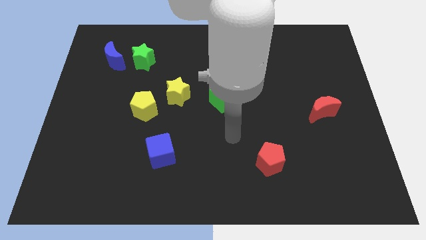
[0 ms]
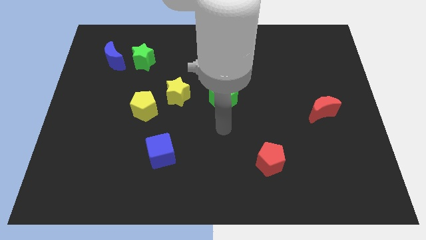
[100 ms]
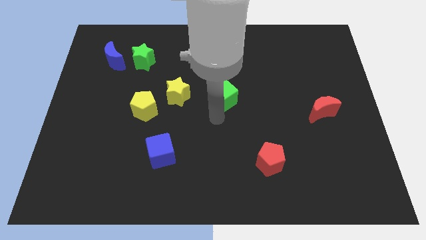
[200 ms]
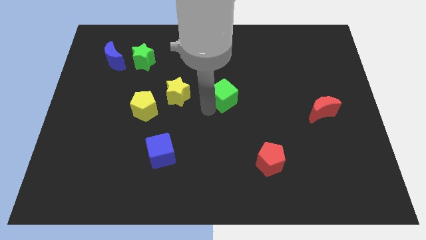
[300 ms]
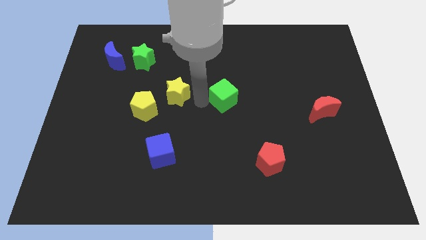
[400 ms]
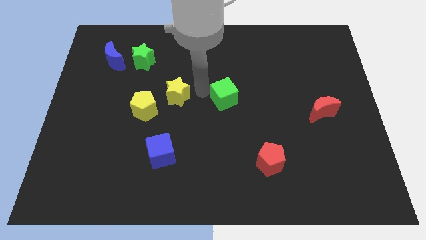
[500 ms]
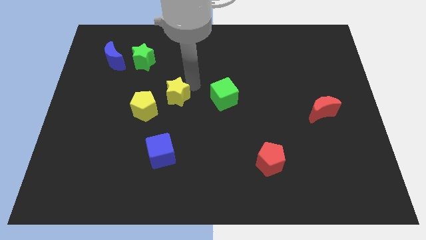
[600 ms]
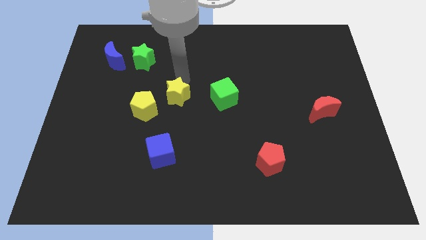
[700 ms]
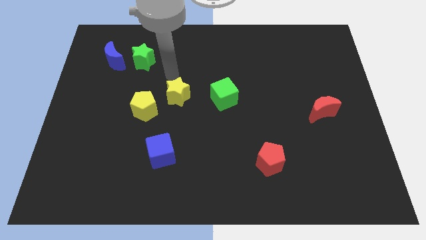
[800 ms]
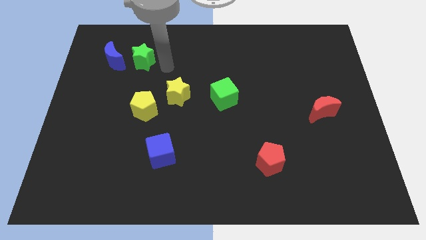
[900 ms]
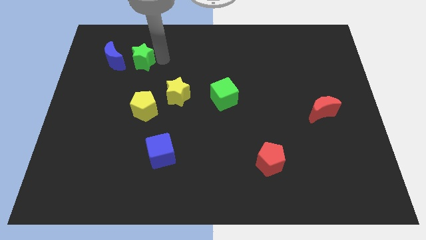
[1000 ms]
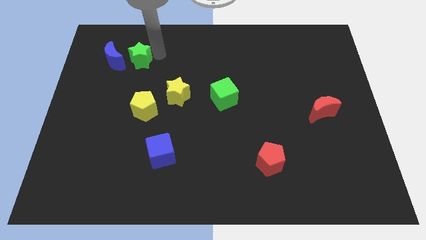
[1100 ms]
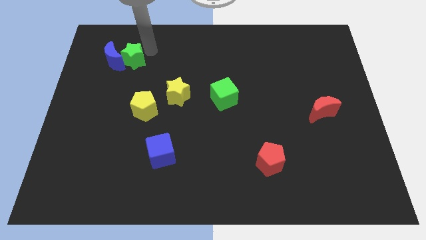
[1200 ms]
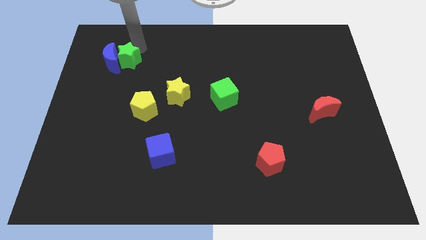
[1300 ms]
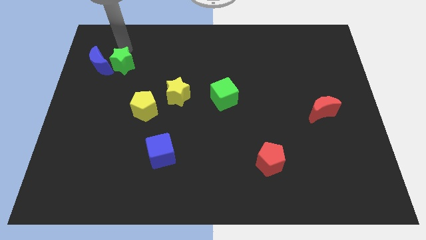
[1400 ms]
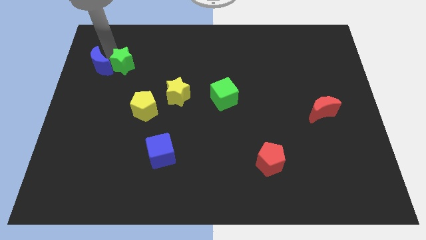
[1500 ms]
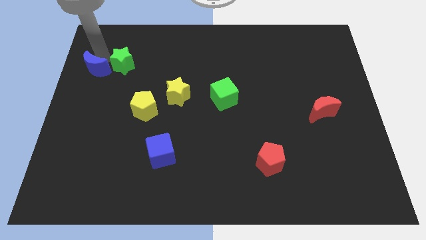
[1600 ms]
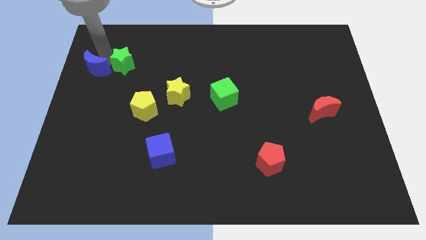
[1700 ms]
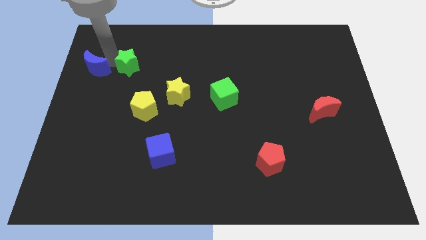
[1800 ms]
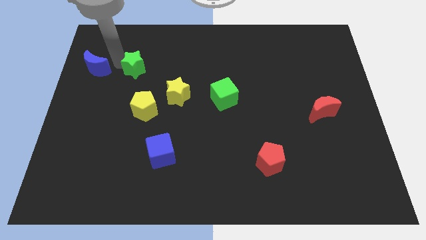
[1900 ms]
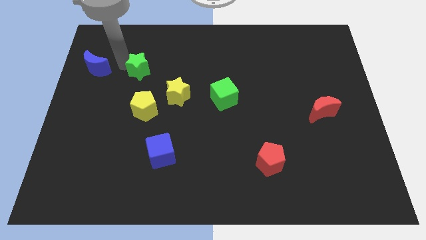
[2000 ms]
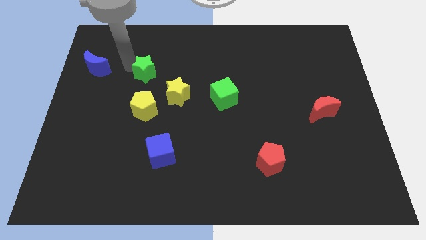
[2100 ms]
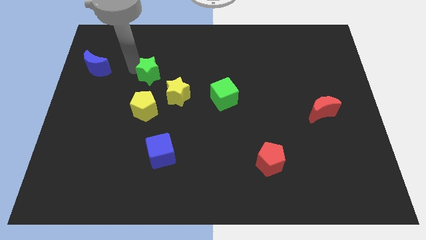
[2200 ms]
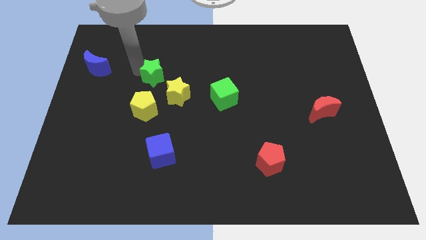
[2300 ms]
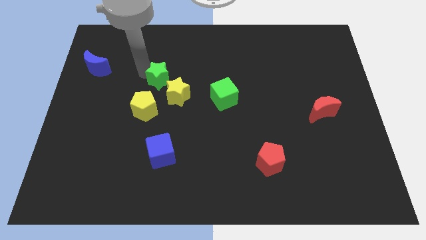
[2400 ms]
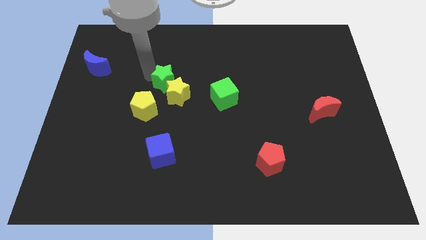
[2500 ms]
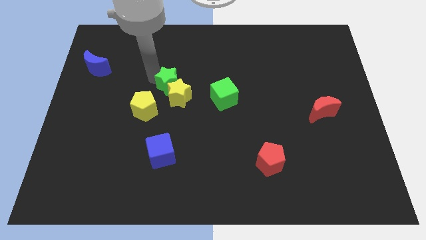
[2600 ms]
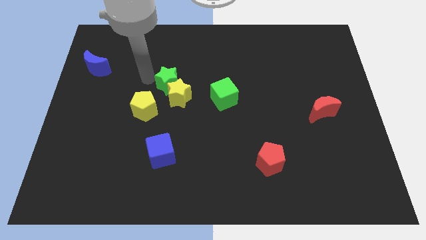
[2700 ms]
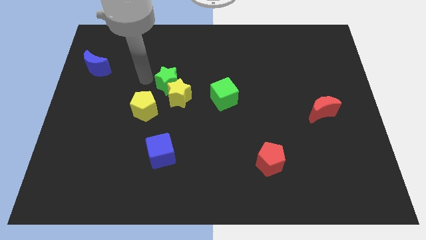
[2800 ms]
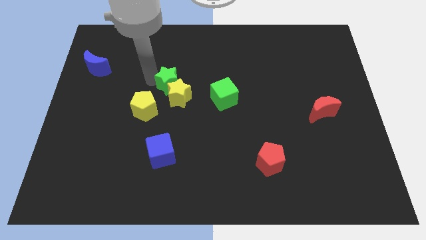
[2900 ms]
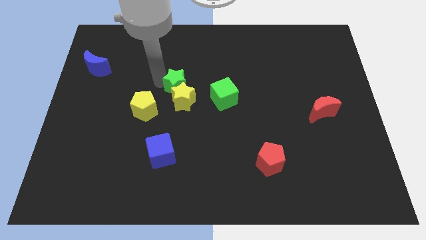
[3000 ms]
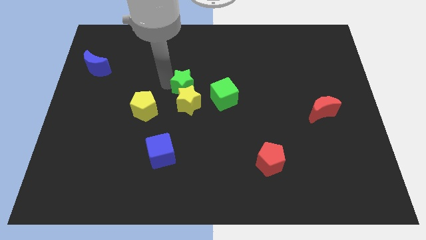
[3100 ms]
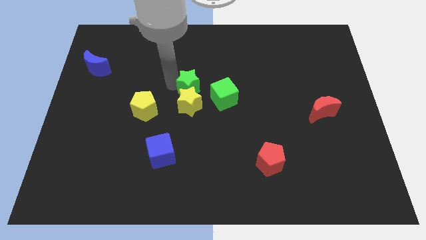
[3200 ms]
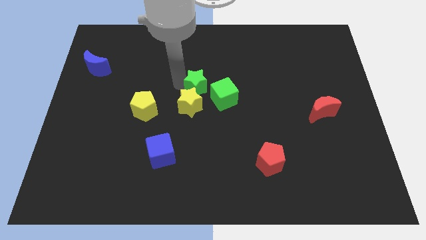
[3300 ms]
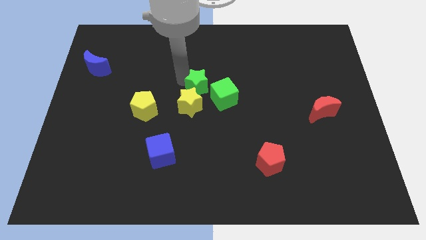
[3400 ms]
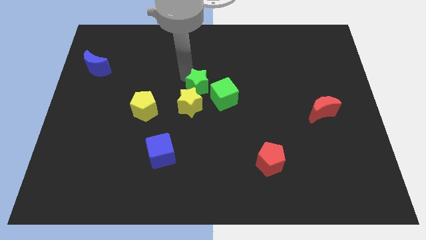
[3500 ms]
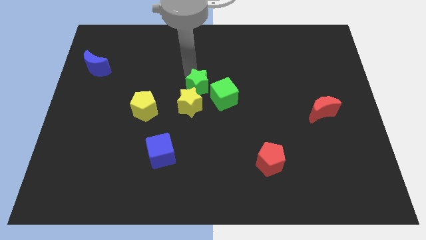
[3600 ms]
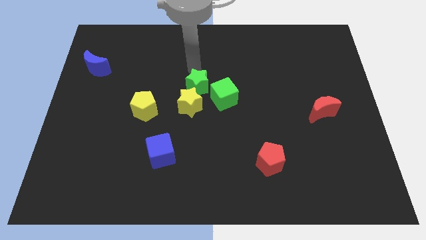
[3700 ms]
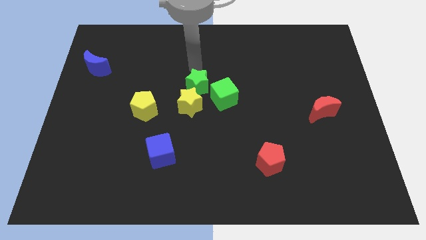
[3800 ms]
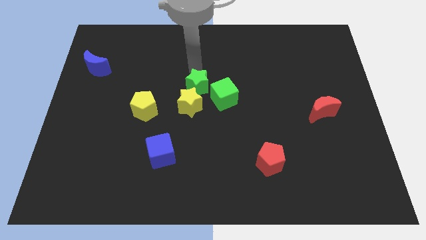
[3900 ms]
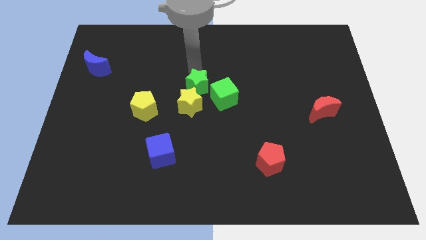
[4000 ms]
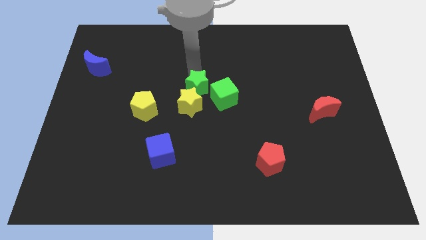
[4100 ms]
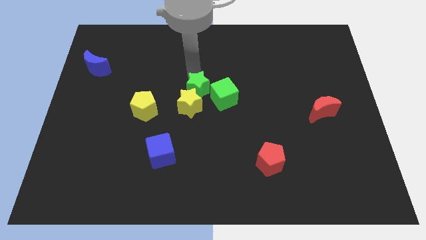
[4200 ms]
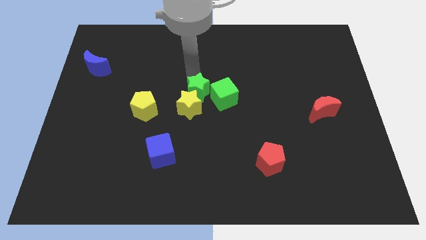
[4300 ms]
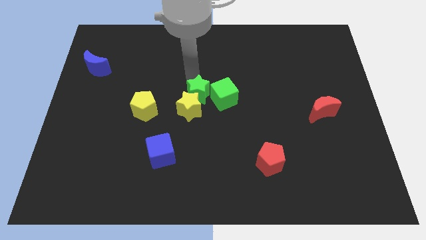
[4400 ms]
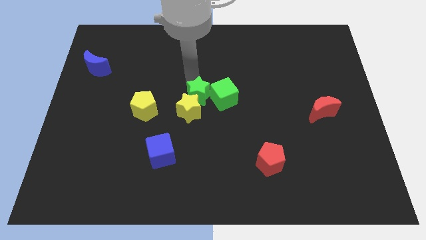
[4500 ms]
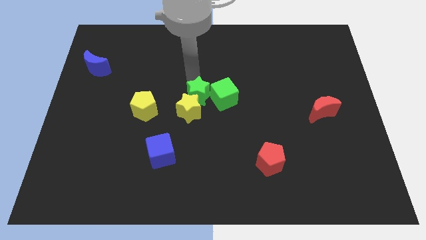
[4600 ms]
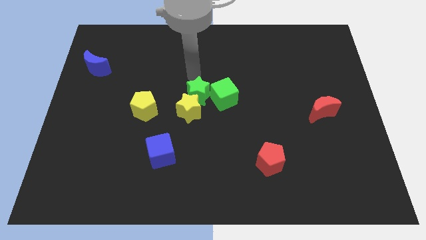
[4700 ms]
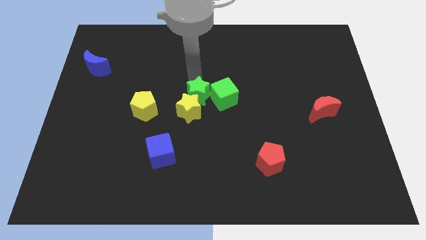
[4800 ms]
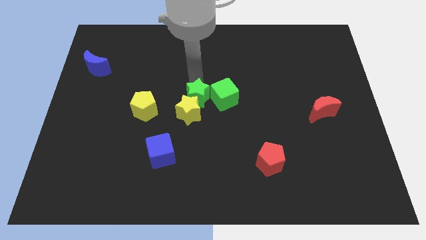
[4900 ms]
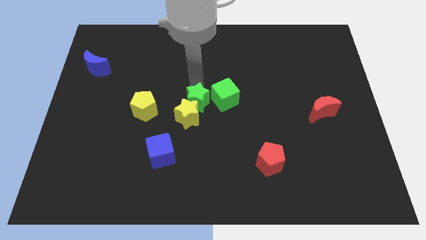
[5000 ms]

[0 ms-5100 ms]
move the green star down and right diagonally

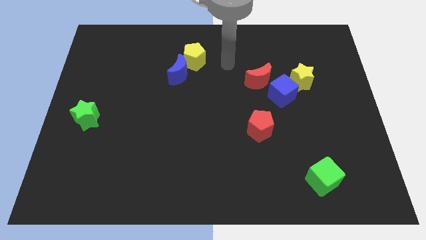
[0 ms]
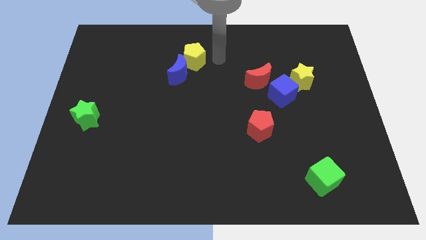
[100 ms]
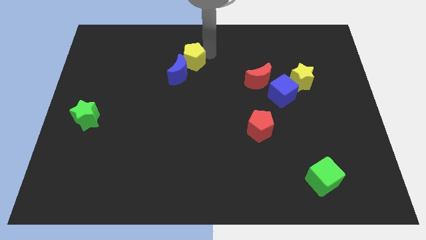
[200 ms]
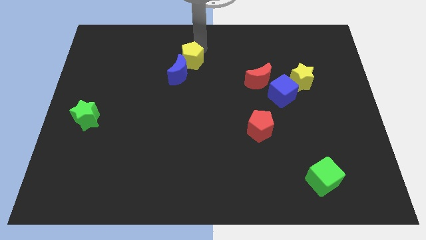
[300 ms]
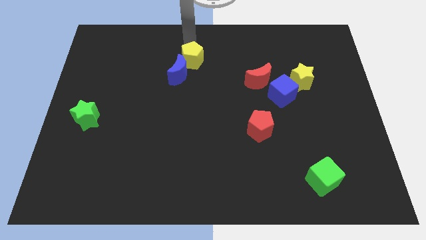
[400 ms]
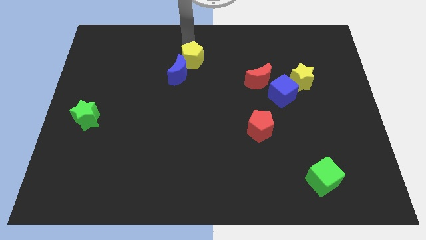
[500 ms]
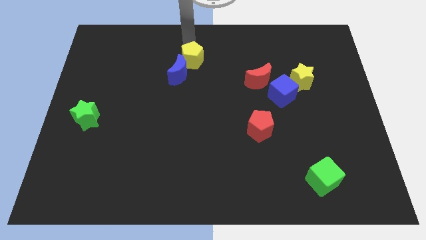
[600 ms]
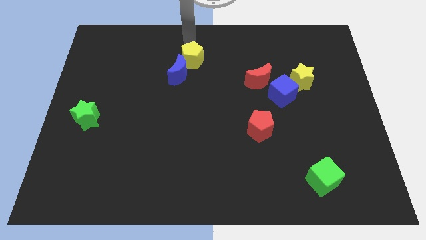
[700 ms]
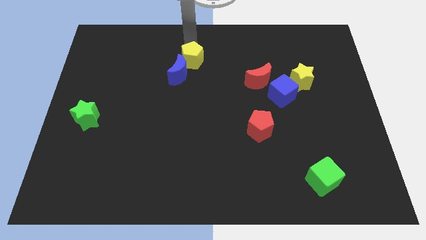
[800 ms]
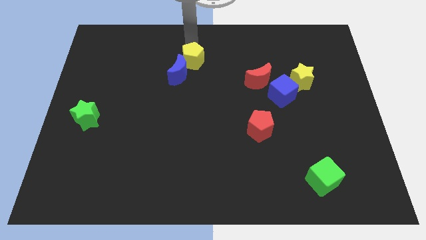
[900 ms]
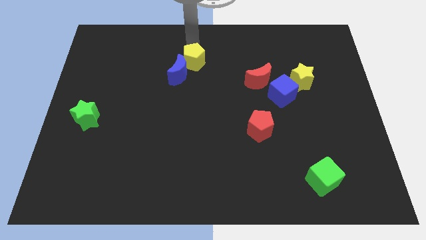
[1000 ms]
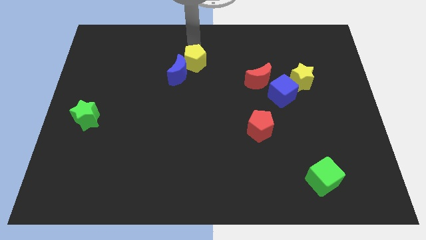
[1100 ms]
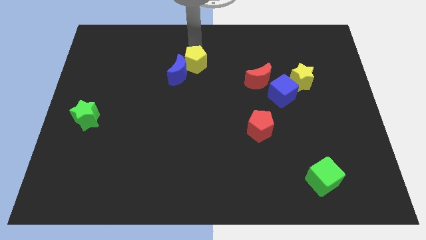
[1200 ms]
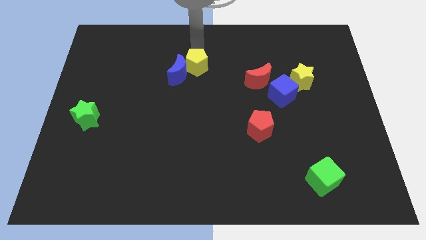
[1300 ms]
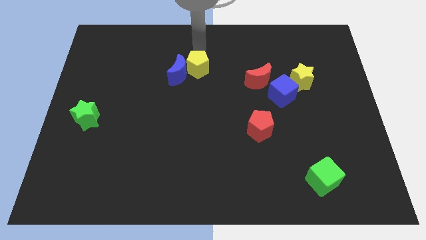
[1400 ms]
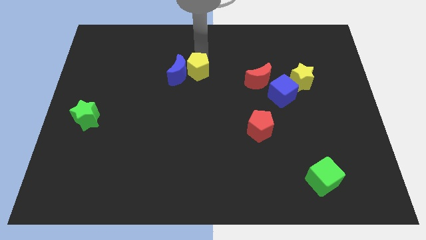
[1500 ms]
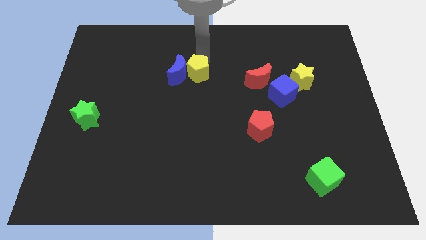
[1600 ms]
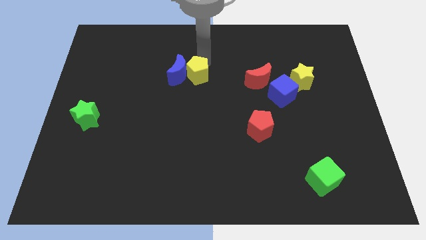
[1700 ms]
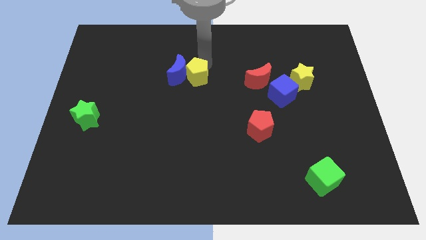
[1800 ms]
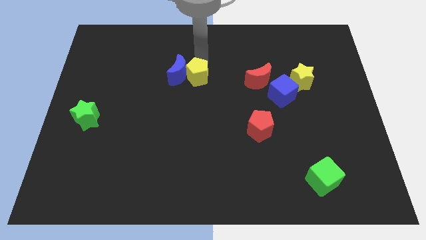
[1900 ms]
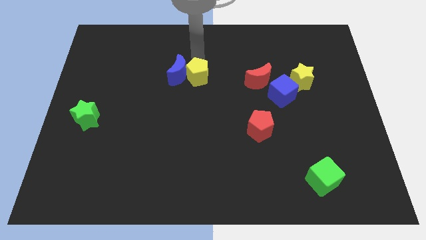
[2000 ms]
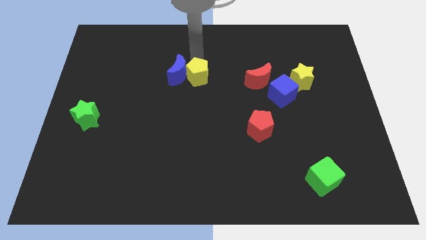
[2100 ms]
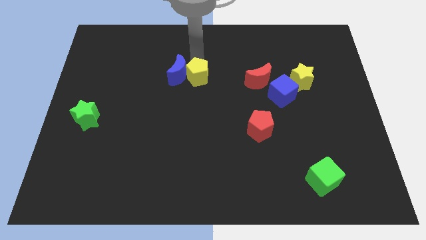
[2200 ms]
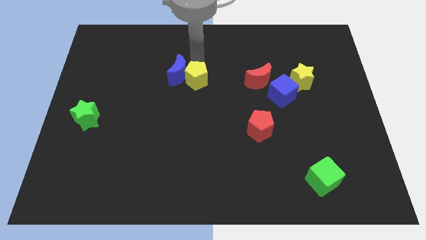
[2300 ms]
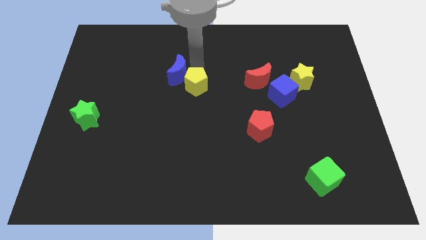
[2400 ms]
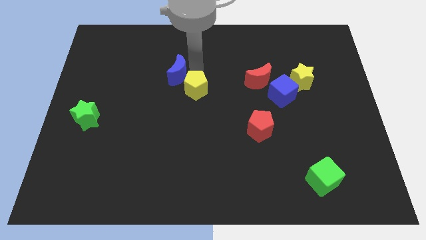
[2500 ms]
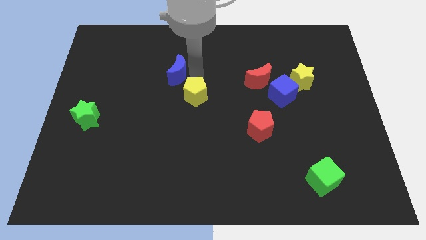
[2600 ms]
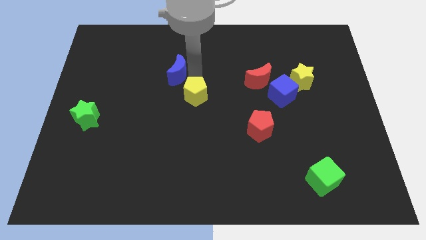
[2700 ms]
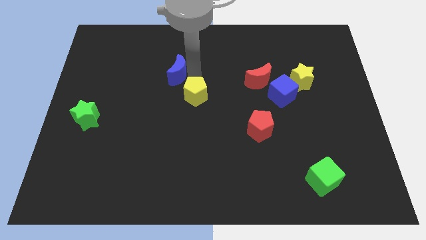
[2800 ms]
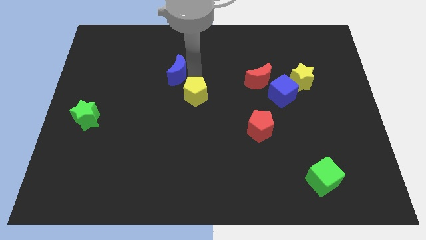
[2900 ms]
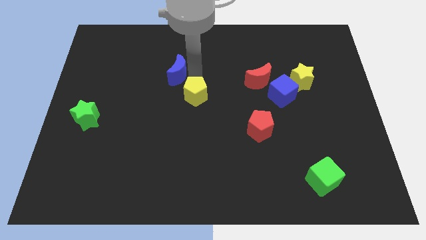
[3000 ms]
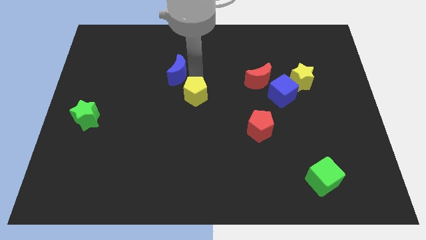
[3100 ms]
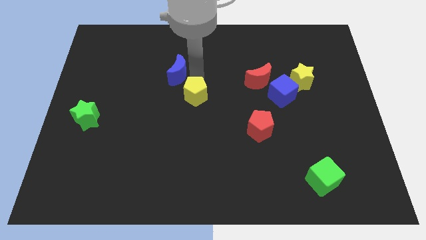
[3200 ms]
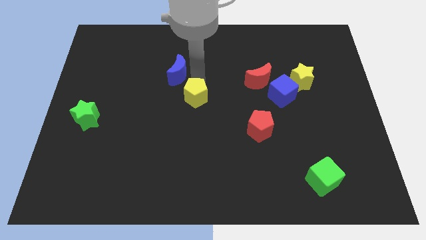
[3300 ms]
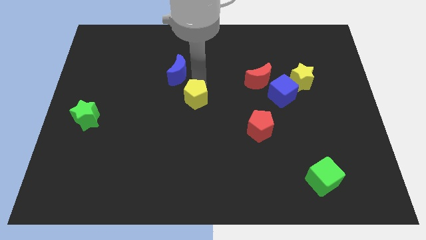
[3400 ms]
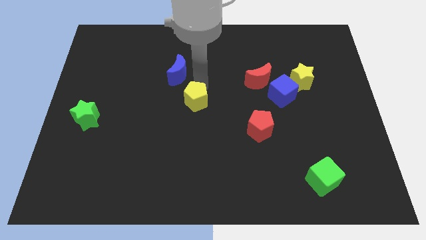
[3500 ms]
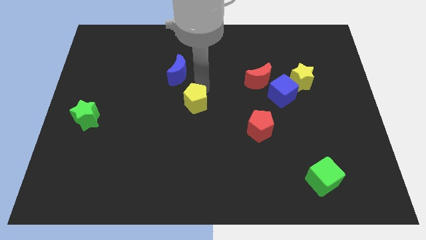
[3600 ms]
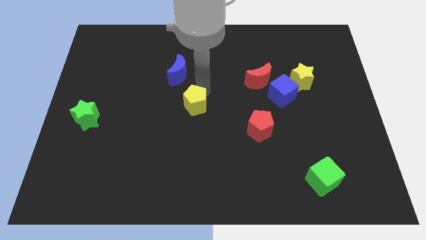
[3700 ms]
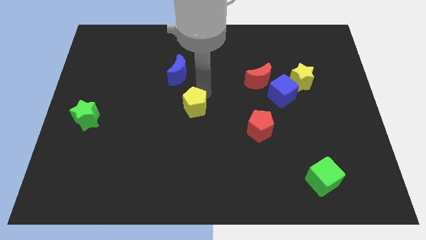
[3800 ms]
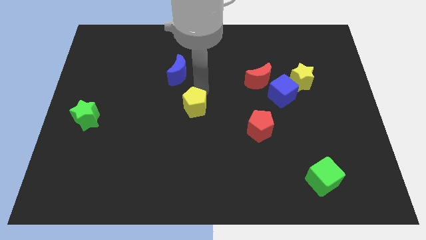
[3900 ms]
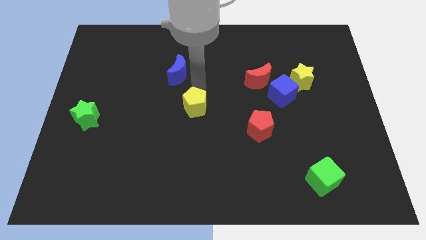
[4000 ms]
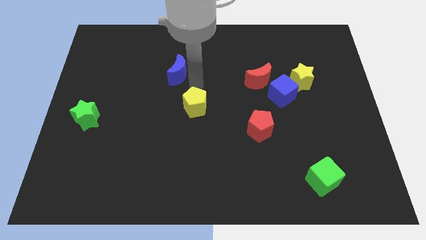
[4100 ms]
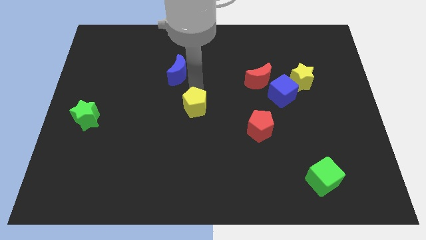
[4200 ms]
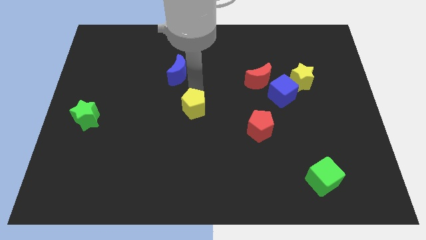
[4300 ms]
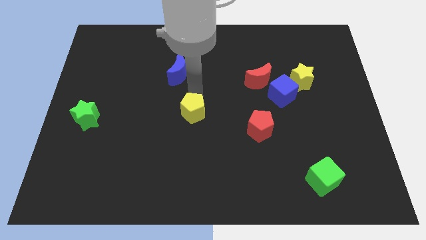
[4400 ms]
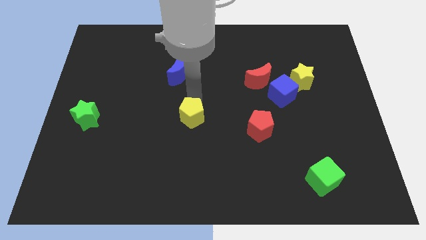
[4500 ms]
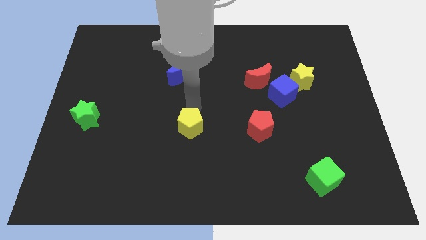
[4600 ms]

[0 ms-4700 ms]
slide the yellow pentagon downwards
